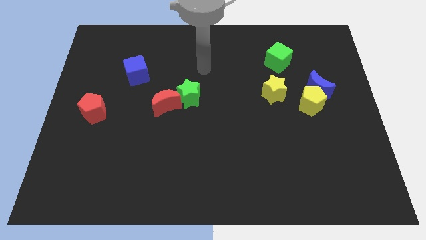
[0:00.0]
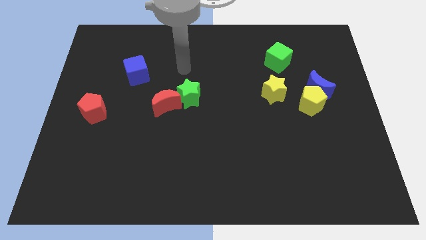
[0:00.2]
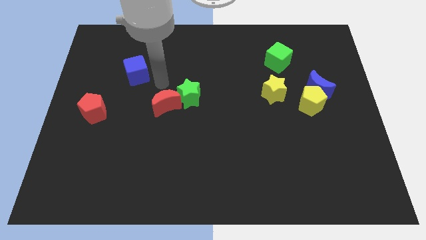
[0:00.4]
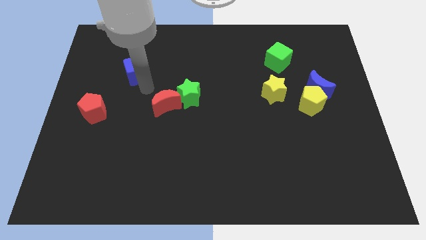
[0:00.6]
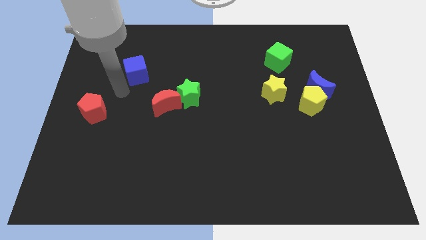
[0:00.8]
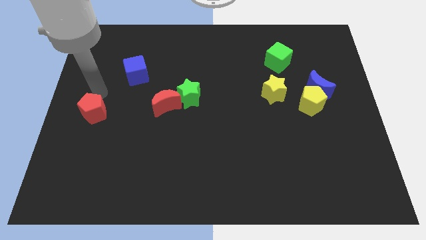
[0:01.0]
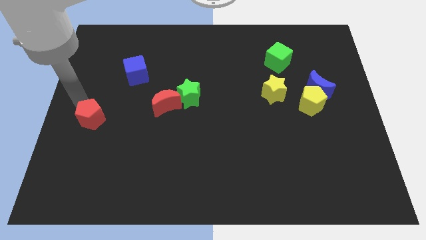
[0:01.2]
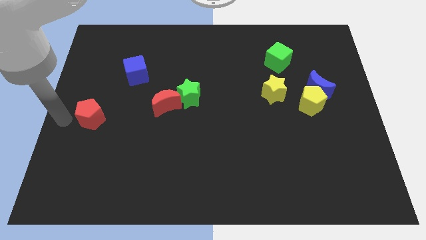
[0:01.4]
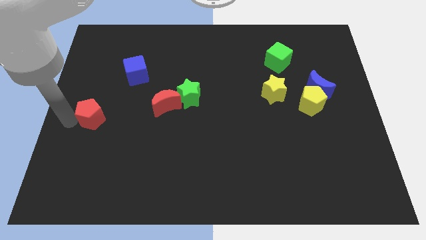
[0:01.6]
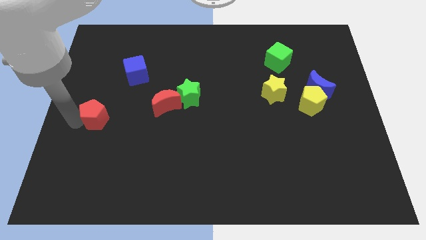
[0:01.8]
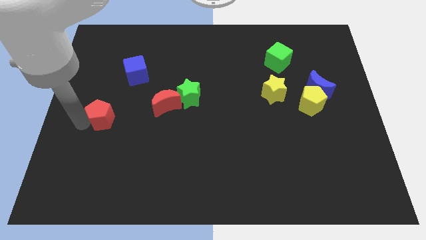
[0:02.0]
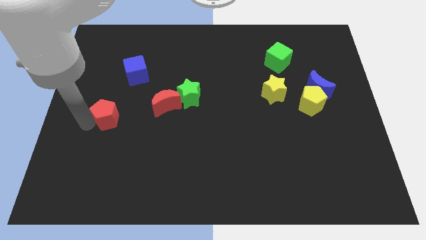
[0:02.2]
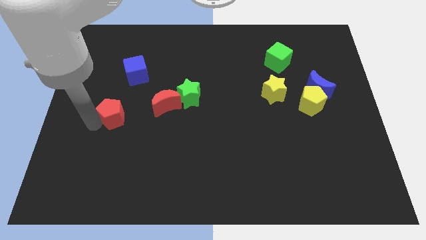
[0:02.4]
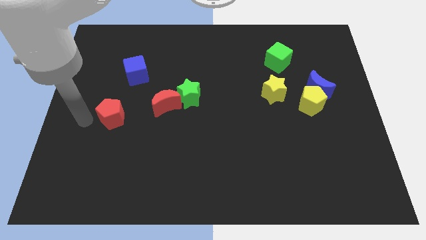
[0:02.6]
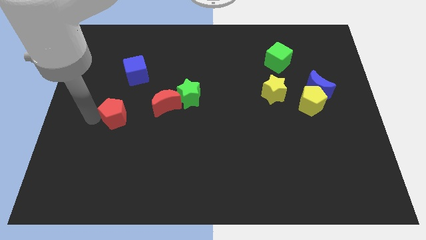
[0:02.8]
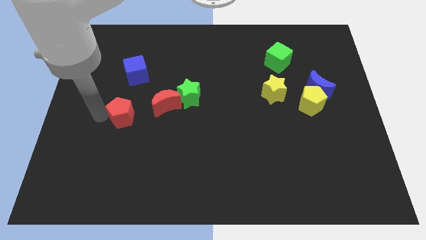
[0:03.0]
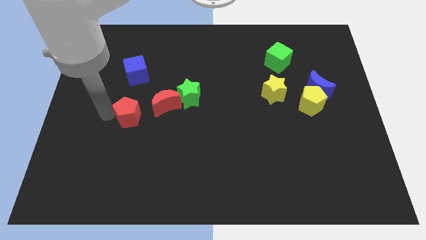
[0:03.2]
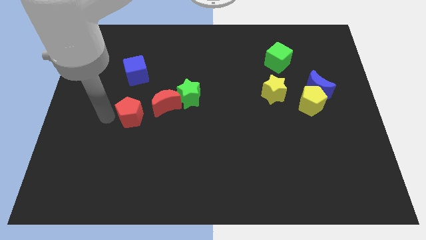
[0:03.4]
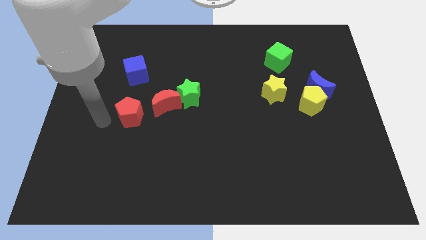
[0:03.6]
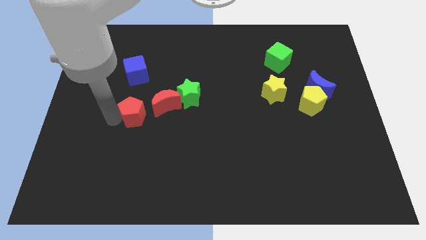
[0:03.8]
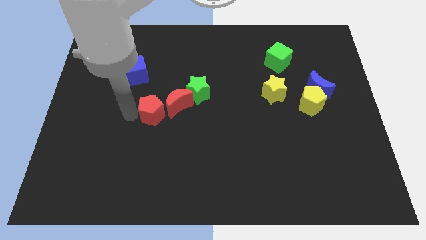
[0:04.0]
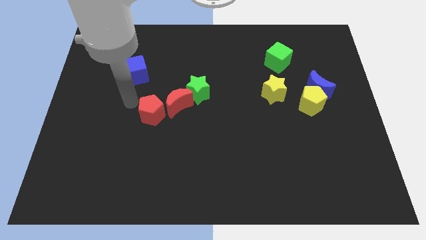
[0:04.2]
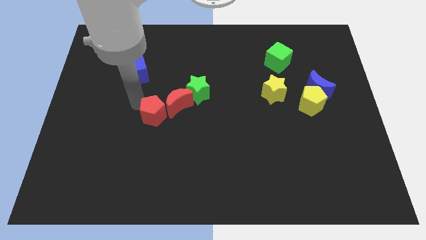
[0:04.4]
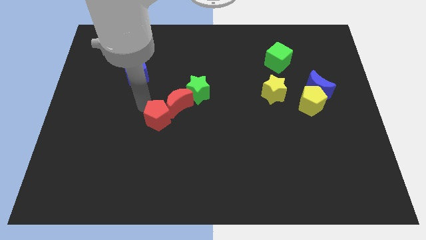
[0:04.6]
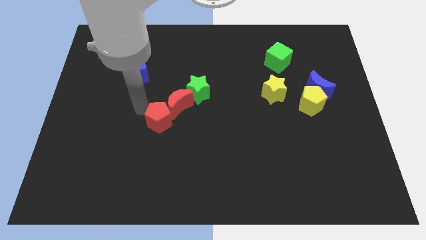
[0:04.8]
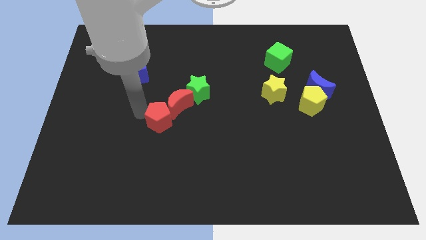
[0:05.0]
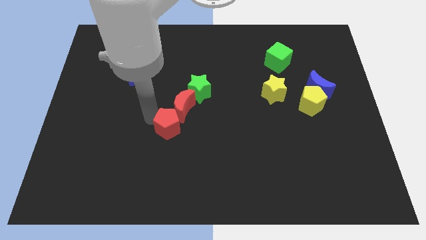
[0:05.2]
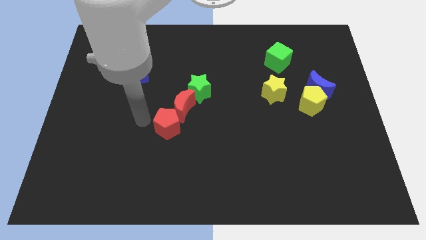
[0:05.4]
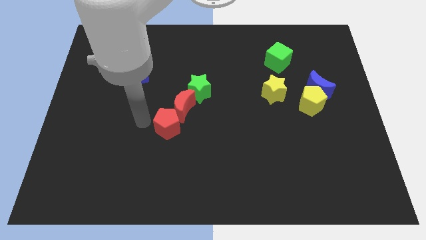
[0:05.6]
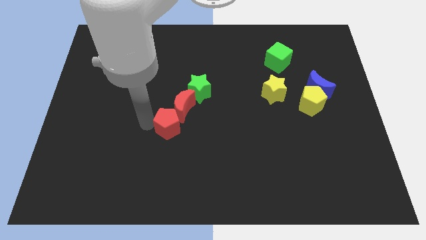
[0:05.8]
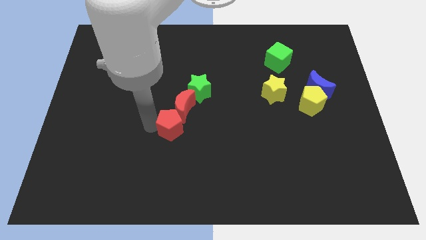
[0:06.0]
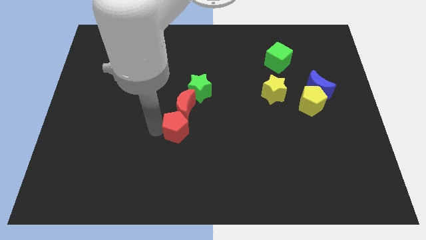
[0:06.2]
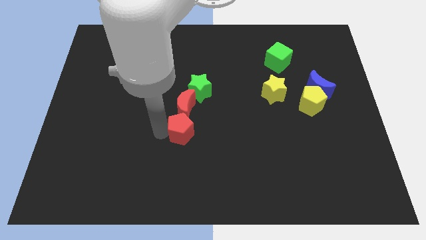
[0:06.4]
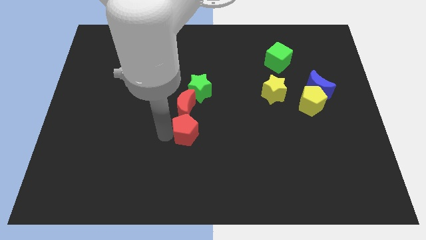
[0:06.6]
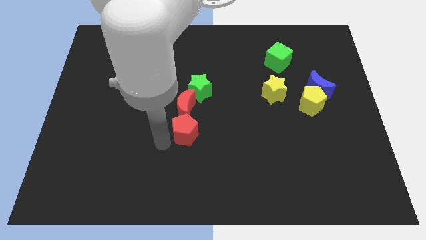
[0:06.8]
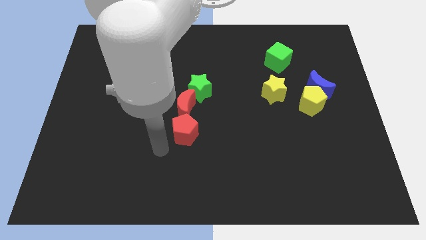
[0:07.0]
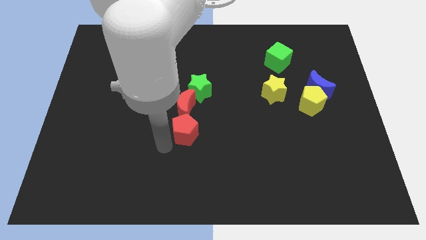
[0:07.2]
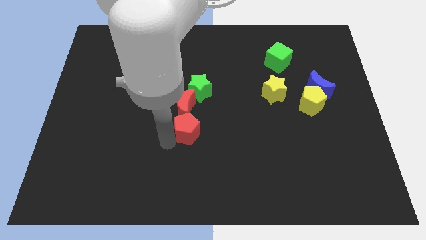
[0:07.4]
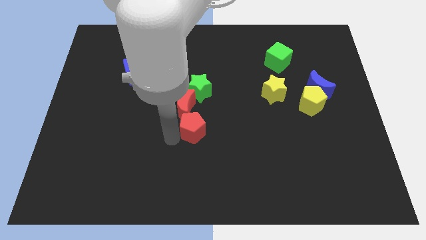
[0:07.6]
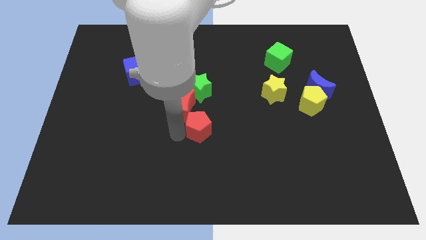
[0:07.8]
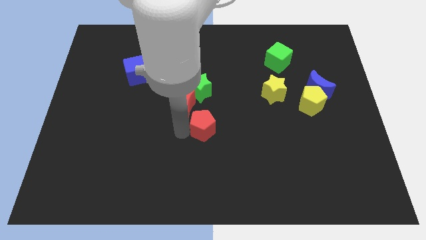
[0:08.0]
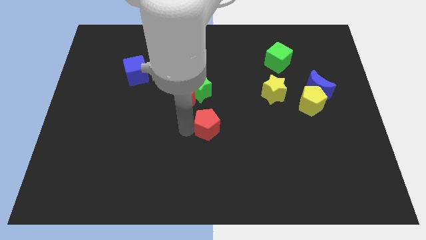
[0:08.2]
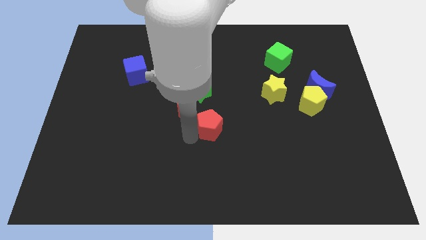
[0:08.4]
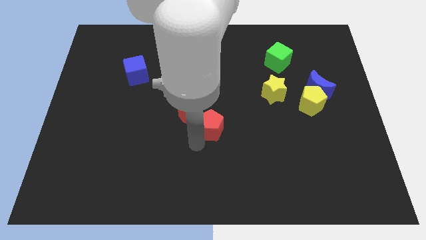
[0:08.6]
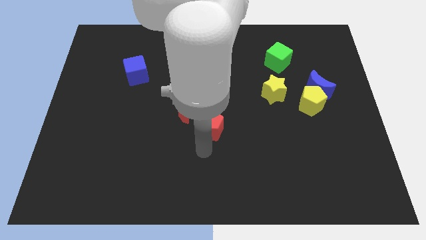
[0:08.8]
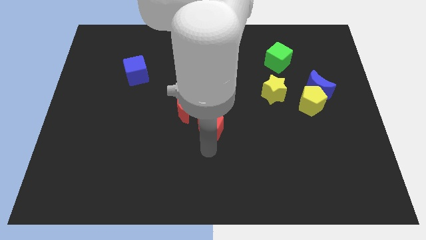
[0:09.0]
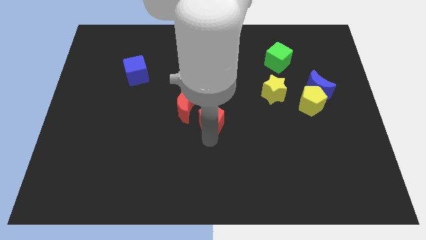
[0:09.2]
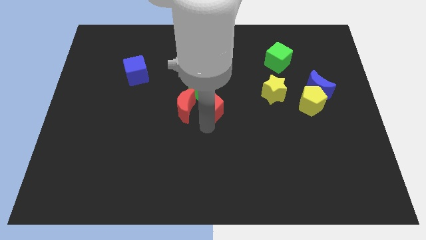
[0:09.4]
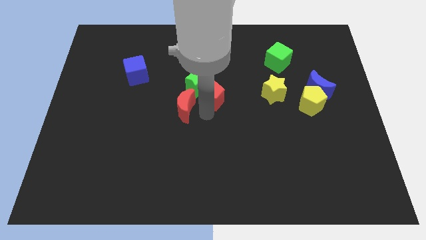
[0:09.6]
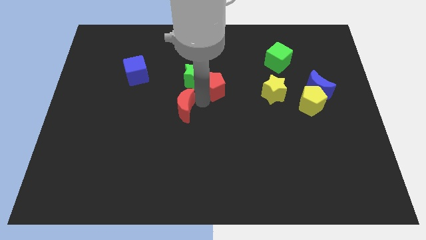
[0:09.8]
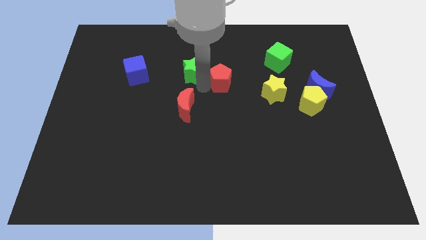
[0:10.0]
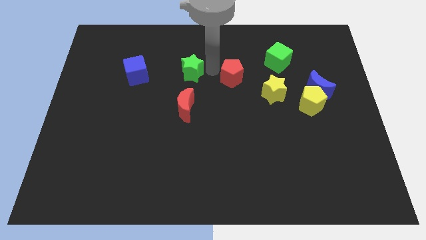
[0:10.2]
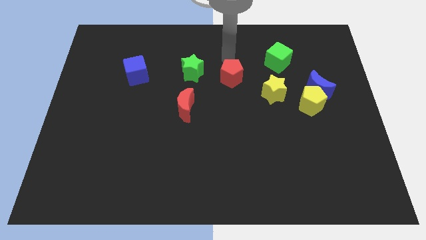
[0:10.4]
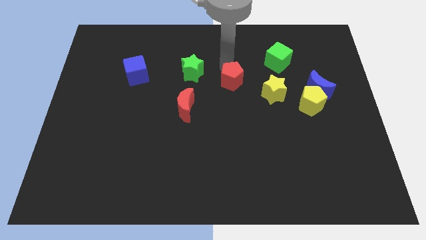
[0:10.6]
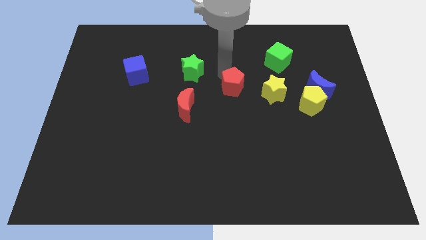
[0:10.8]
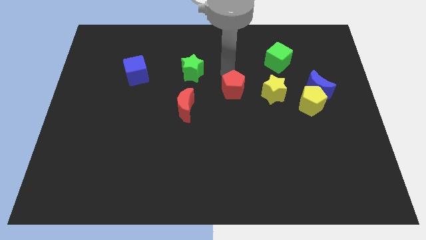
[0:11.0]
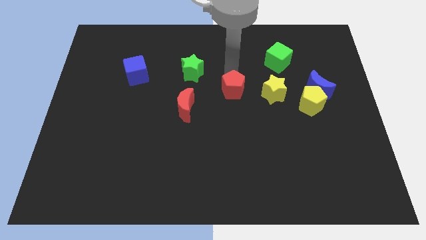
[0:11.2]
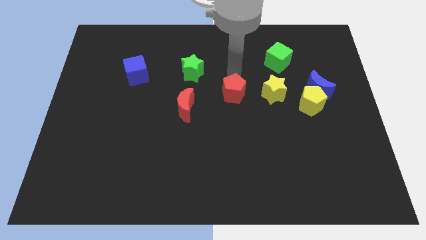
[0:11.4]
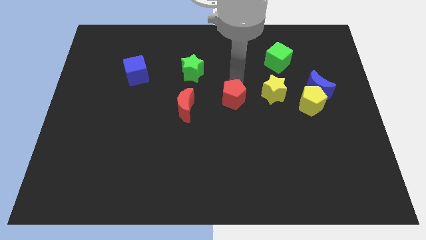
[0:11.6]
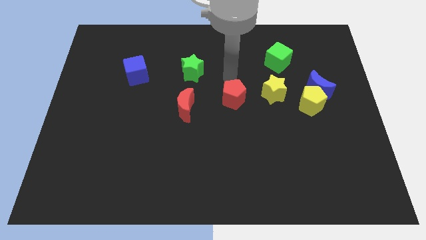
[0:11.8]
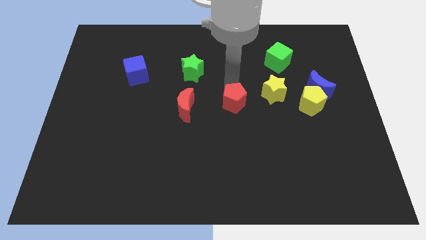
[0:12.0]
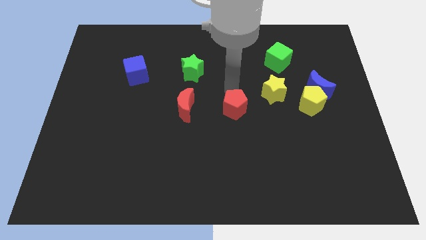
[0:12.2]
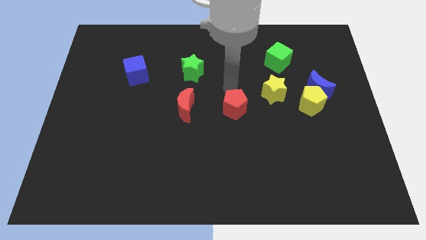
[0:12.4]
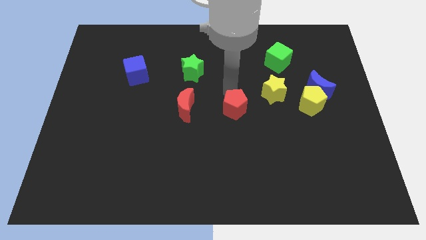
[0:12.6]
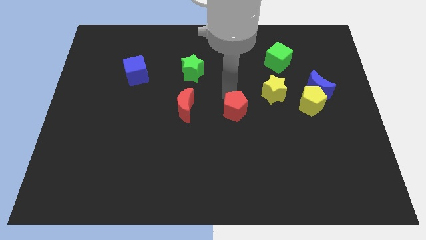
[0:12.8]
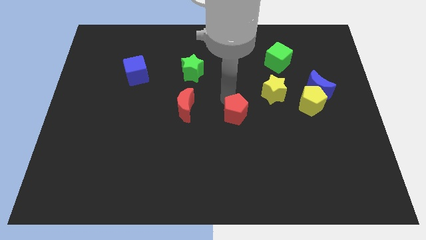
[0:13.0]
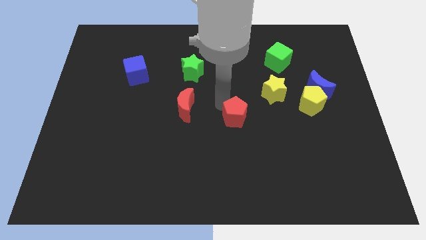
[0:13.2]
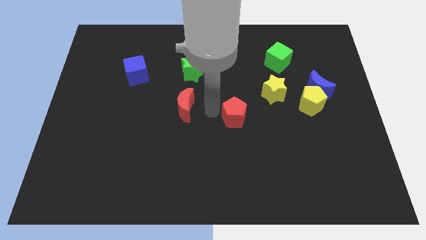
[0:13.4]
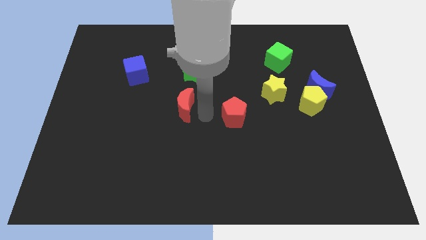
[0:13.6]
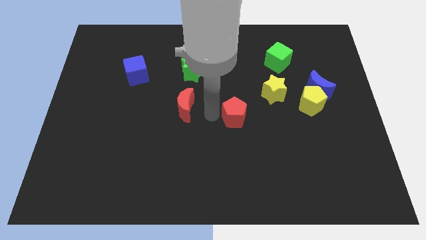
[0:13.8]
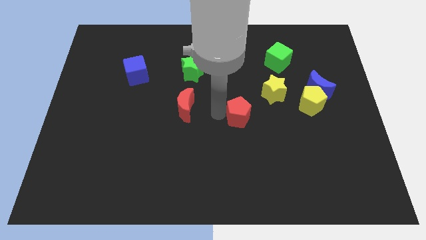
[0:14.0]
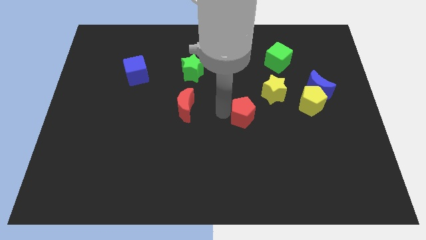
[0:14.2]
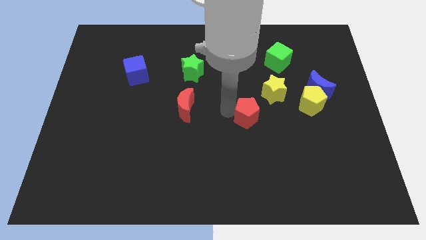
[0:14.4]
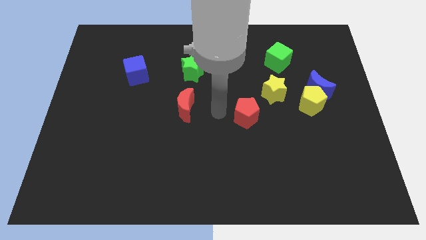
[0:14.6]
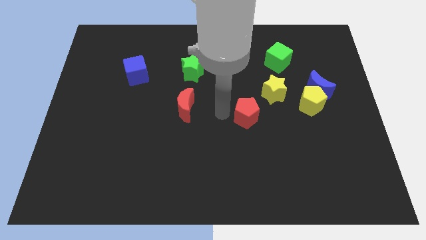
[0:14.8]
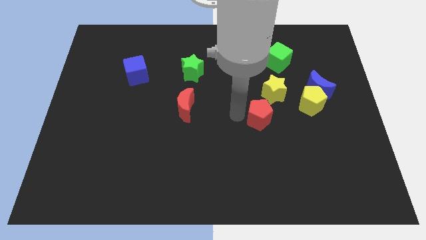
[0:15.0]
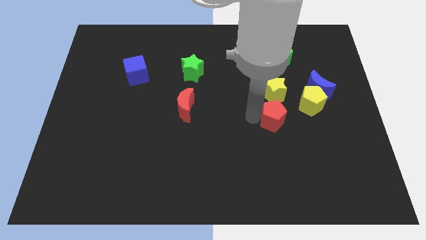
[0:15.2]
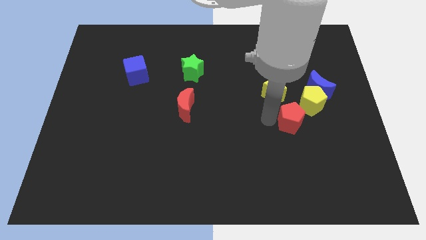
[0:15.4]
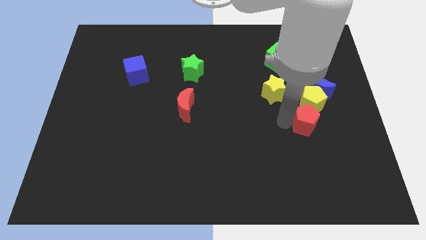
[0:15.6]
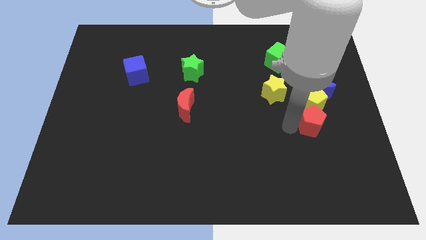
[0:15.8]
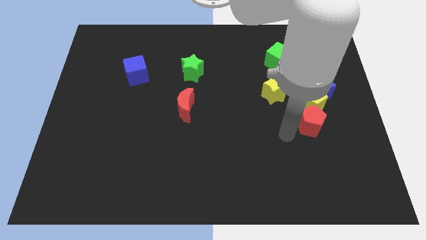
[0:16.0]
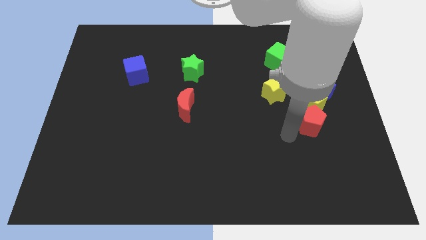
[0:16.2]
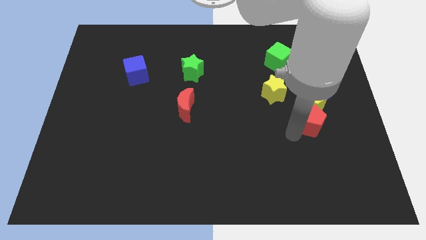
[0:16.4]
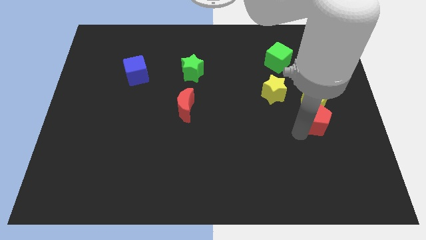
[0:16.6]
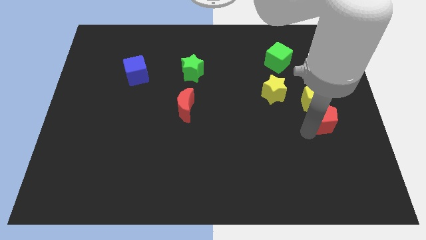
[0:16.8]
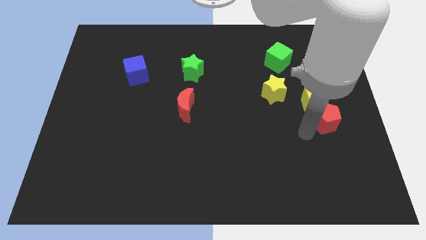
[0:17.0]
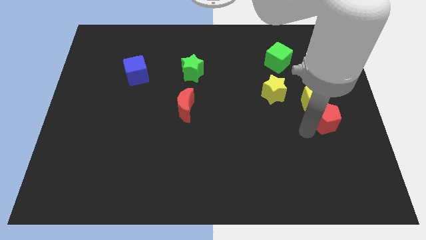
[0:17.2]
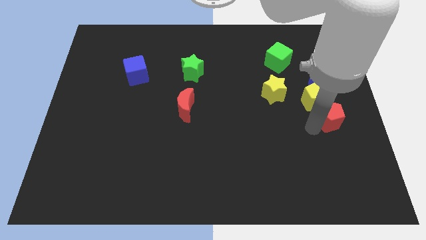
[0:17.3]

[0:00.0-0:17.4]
slide the red pentagon to the right side
